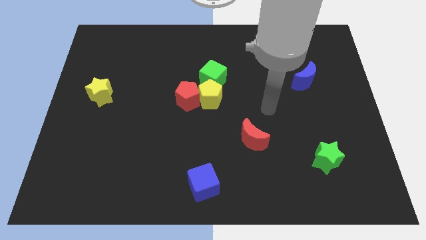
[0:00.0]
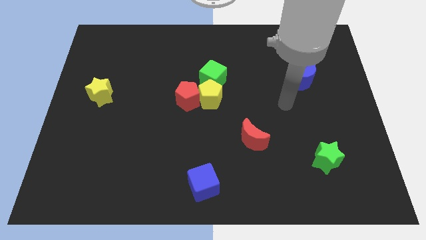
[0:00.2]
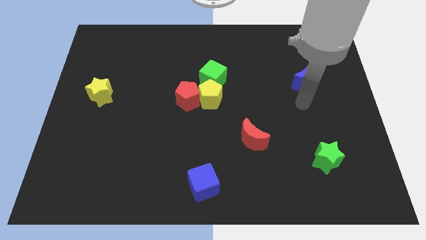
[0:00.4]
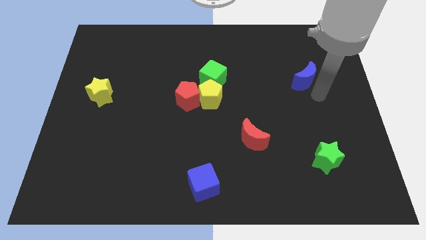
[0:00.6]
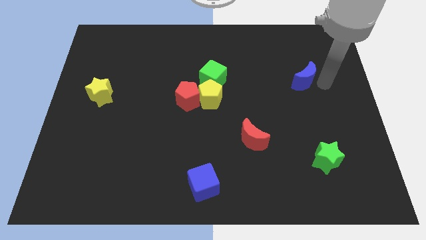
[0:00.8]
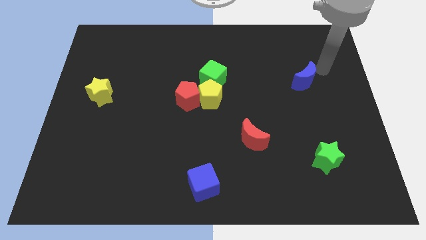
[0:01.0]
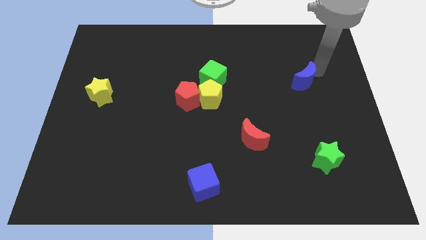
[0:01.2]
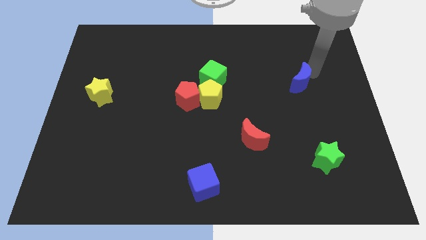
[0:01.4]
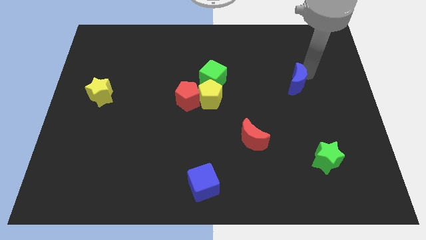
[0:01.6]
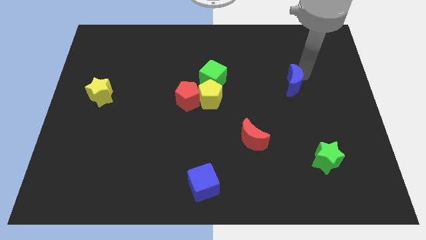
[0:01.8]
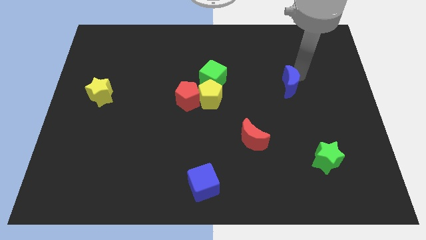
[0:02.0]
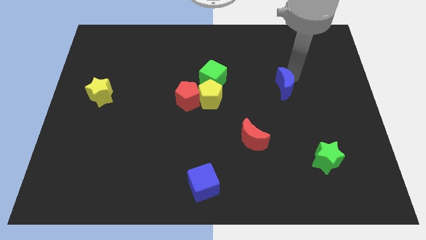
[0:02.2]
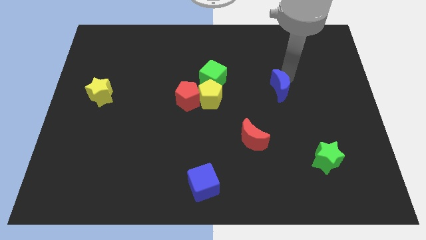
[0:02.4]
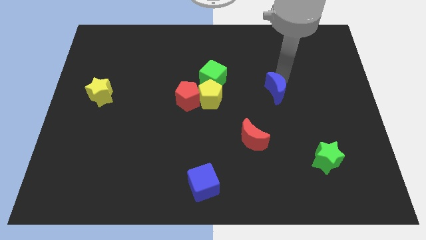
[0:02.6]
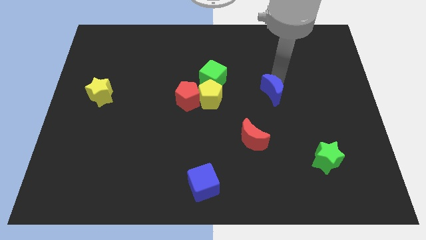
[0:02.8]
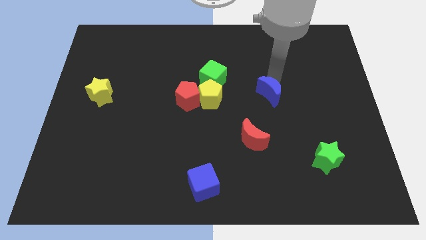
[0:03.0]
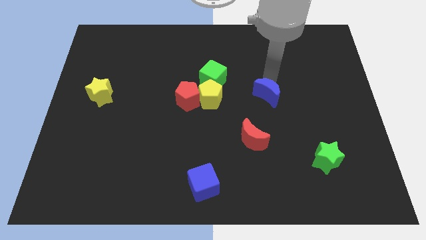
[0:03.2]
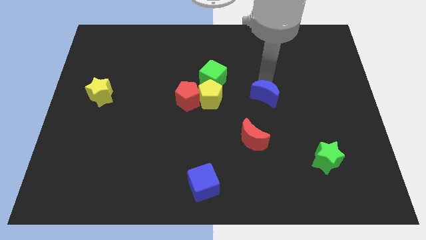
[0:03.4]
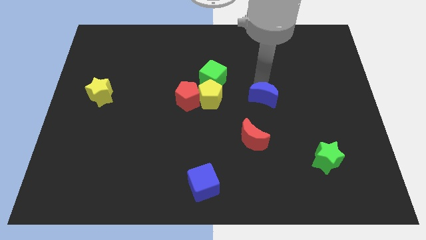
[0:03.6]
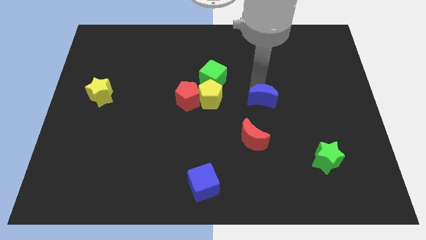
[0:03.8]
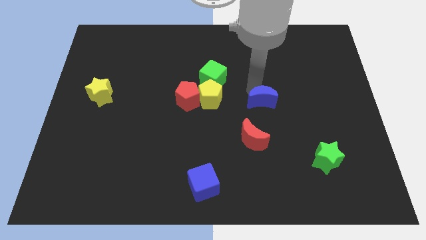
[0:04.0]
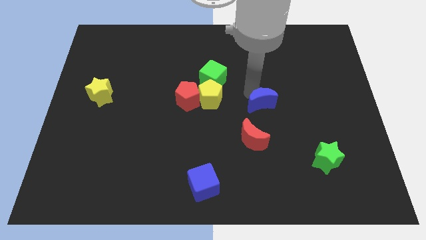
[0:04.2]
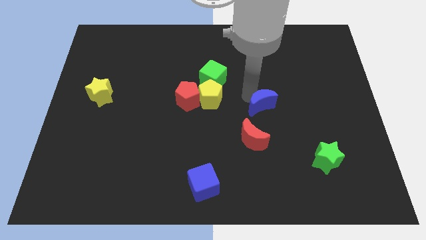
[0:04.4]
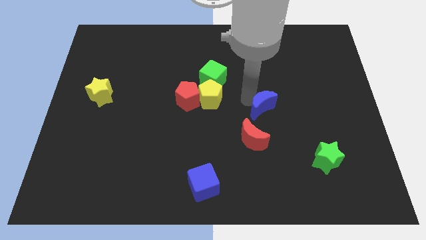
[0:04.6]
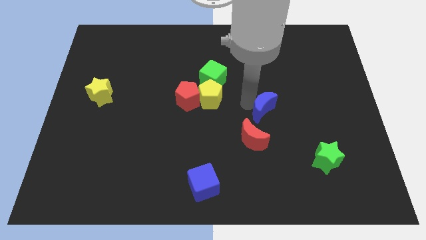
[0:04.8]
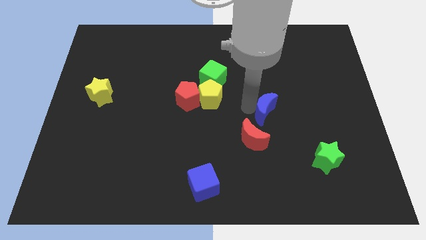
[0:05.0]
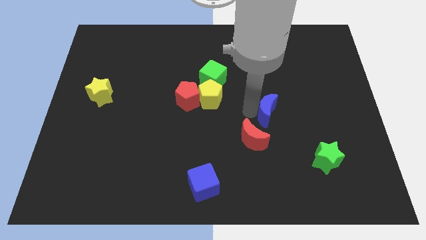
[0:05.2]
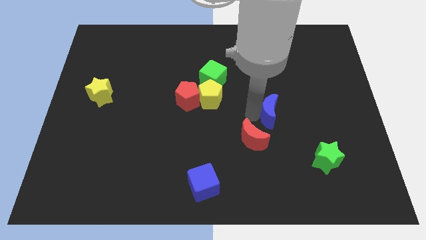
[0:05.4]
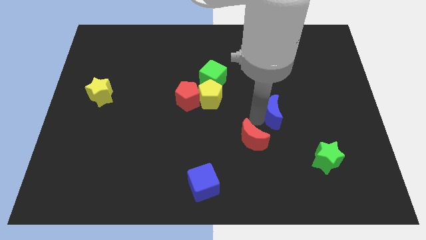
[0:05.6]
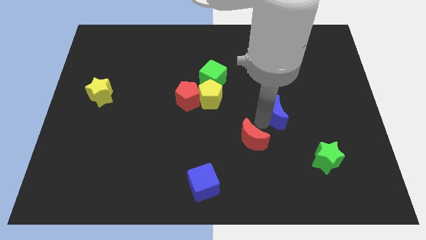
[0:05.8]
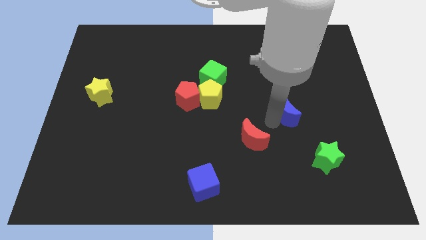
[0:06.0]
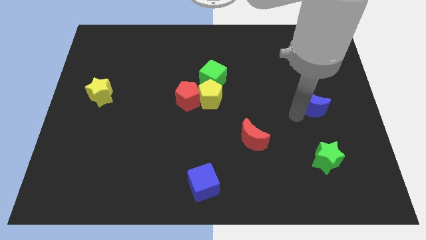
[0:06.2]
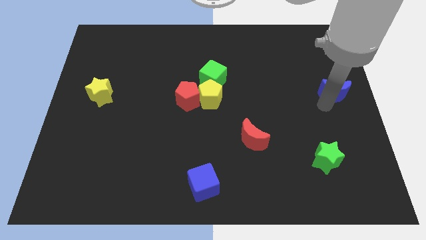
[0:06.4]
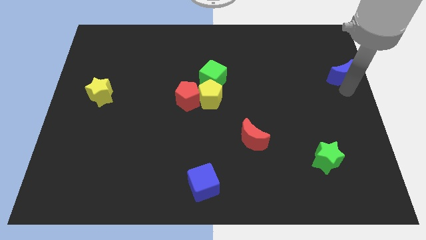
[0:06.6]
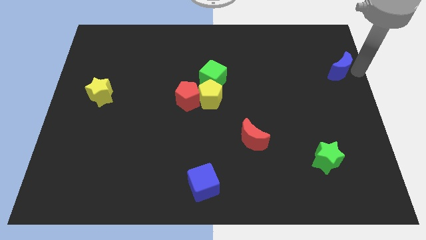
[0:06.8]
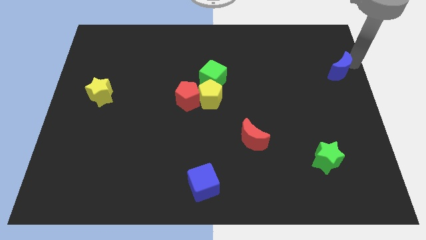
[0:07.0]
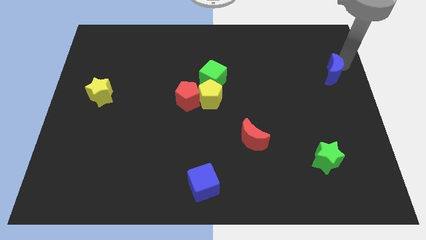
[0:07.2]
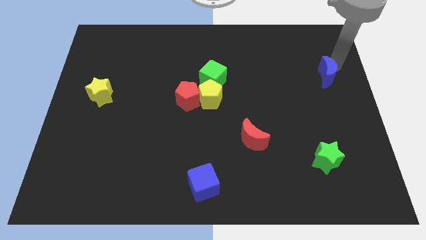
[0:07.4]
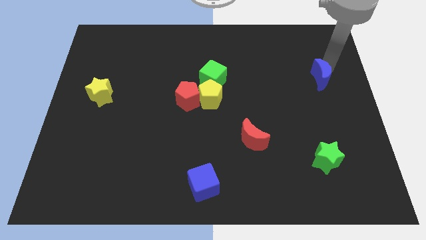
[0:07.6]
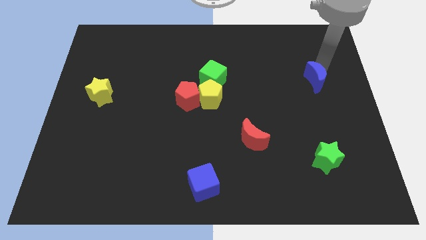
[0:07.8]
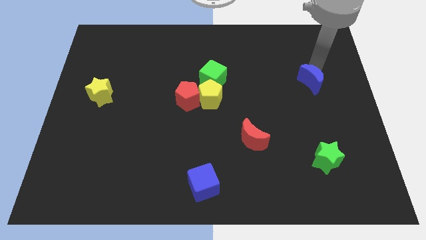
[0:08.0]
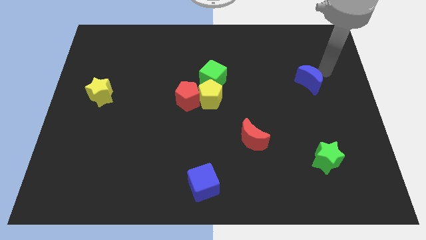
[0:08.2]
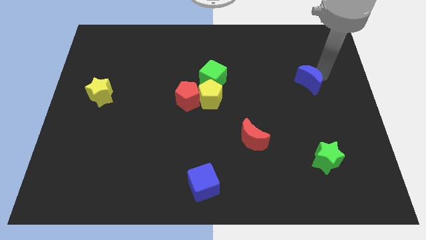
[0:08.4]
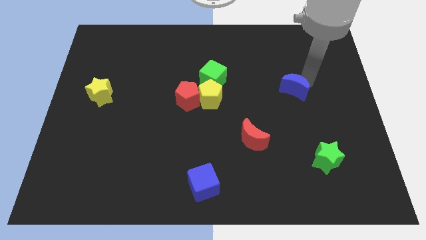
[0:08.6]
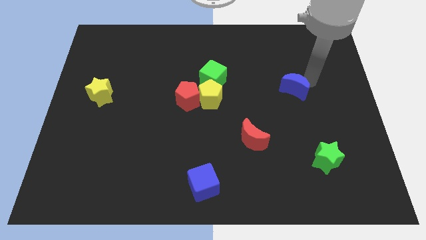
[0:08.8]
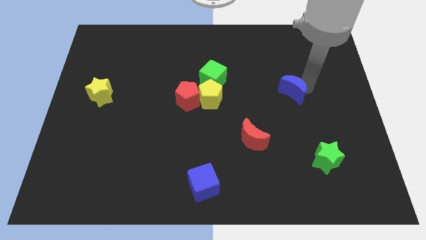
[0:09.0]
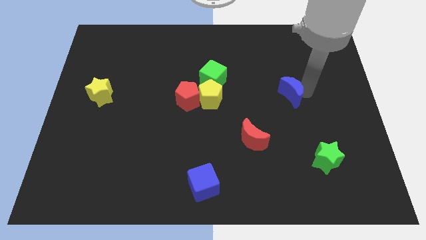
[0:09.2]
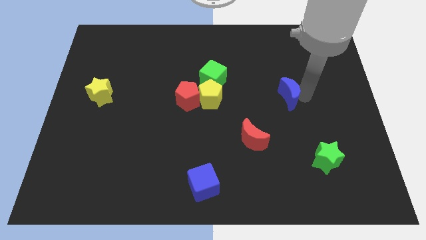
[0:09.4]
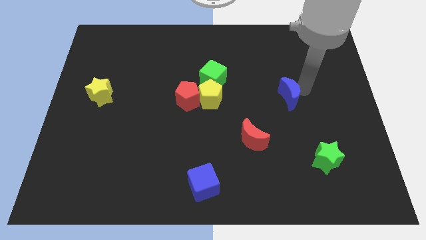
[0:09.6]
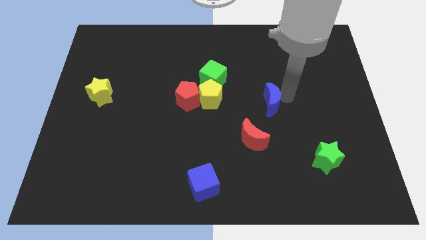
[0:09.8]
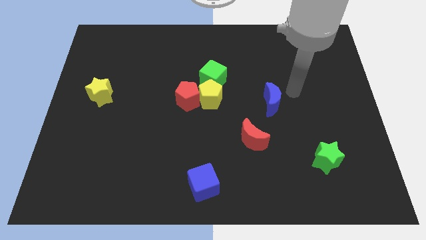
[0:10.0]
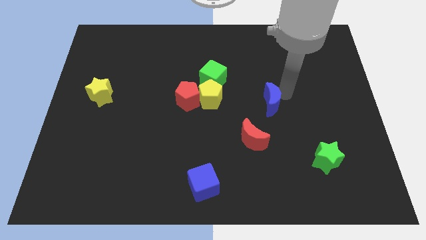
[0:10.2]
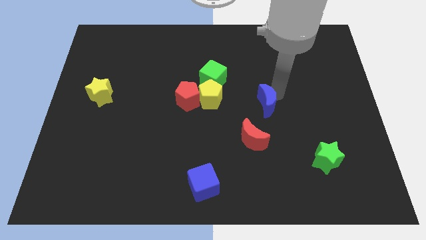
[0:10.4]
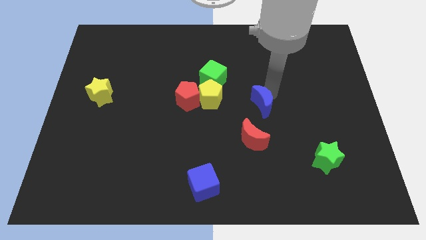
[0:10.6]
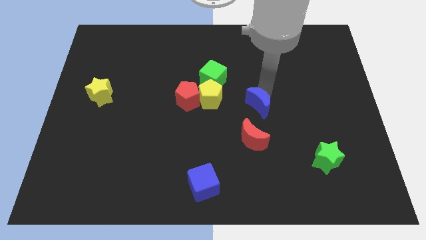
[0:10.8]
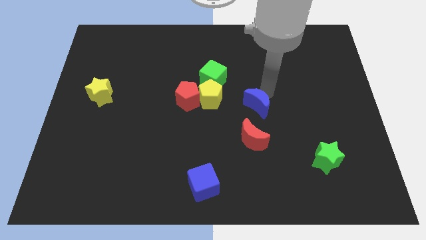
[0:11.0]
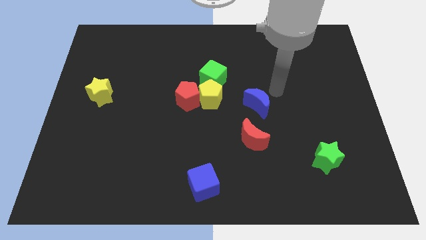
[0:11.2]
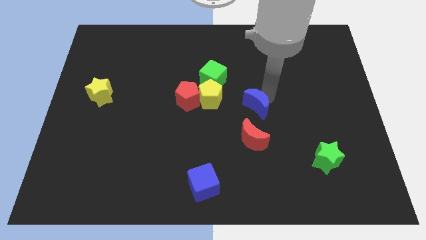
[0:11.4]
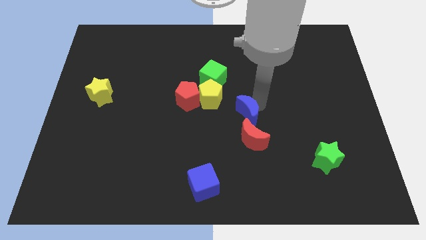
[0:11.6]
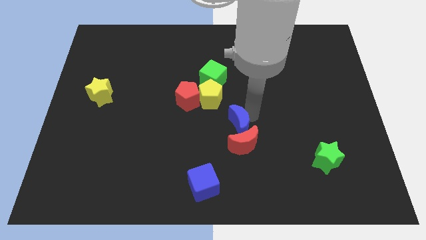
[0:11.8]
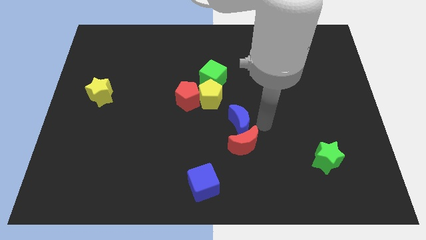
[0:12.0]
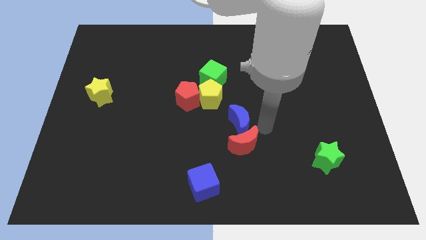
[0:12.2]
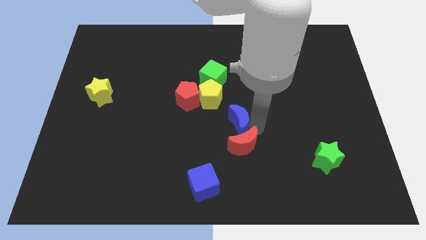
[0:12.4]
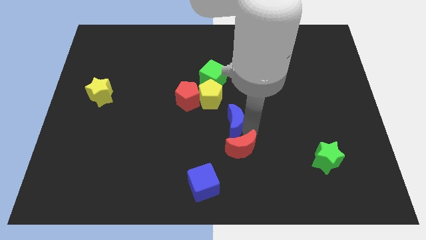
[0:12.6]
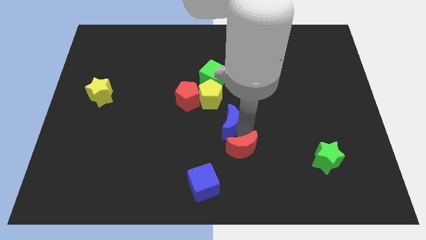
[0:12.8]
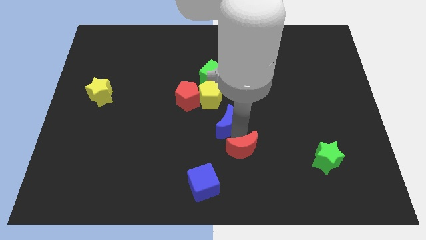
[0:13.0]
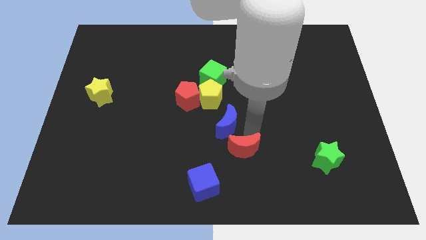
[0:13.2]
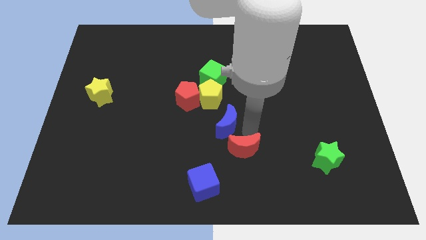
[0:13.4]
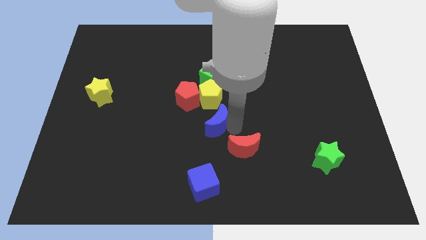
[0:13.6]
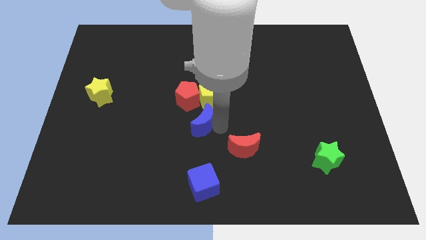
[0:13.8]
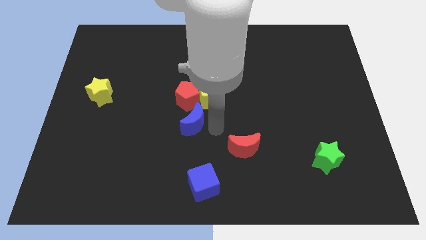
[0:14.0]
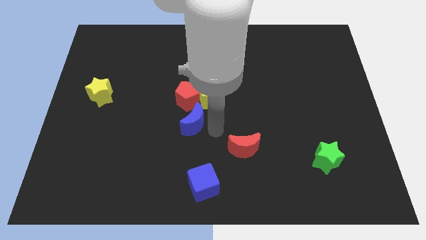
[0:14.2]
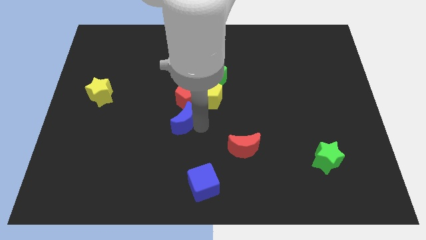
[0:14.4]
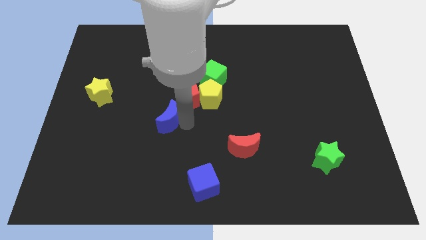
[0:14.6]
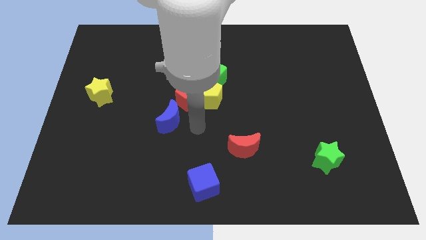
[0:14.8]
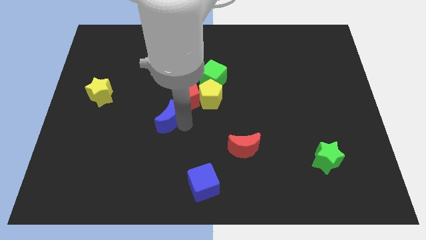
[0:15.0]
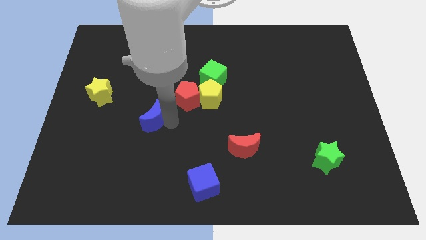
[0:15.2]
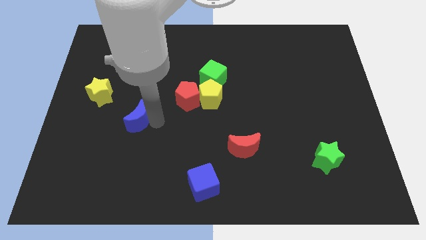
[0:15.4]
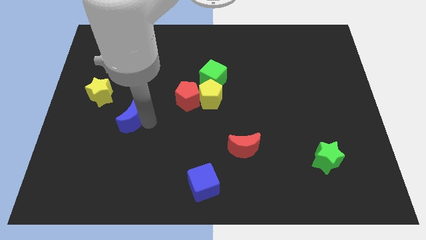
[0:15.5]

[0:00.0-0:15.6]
push the blue moon diagonally down and to the right of the yellow star
